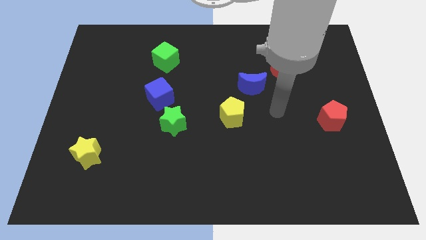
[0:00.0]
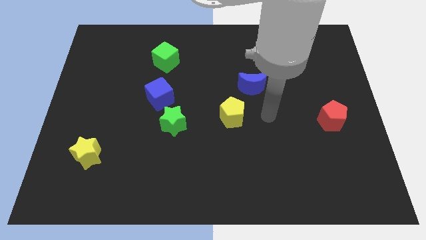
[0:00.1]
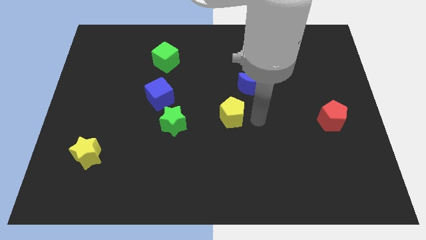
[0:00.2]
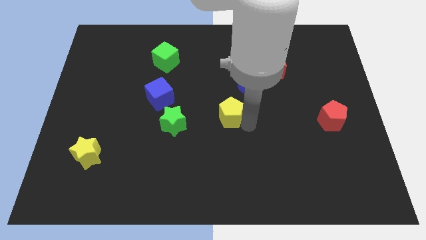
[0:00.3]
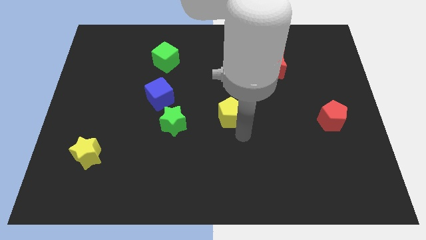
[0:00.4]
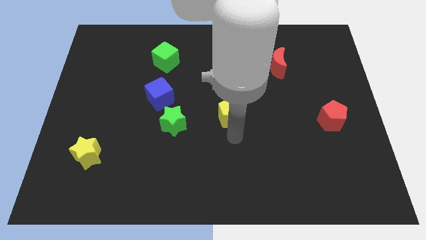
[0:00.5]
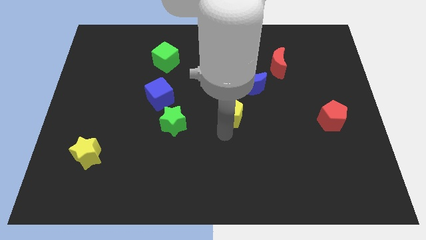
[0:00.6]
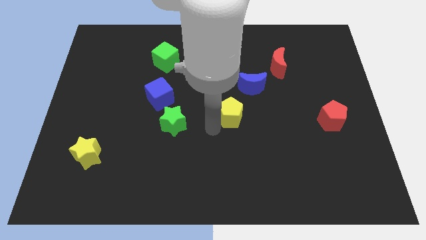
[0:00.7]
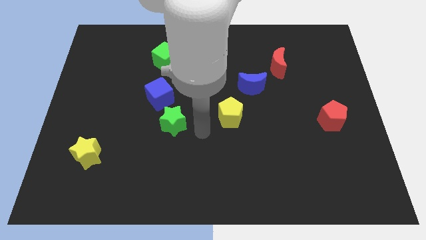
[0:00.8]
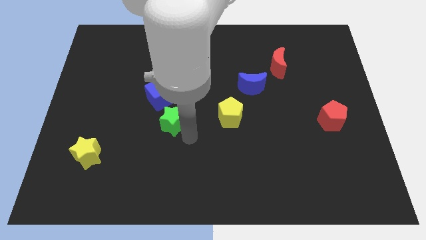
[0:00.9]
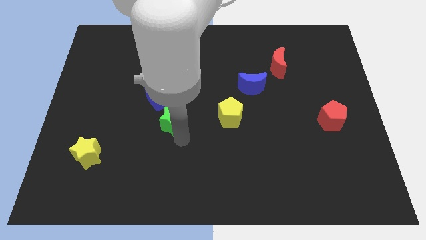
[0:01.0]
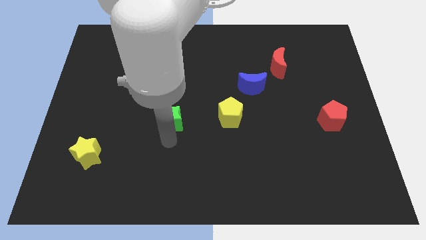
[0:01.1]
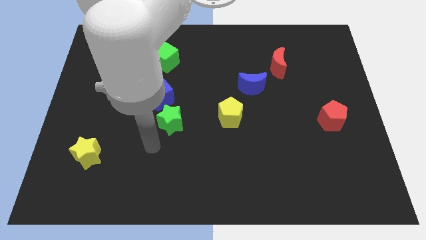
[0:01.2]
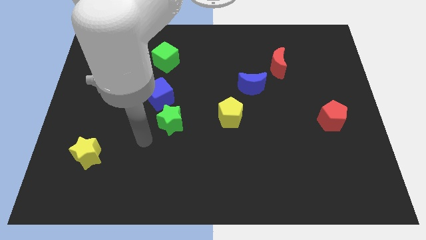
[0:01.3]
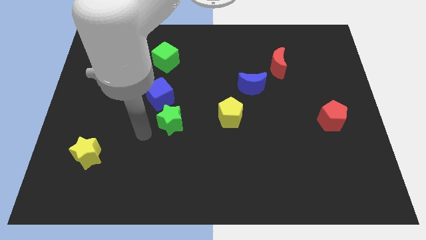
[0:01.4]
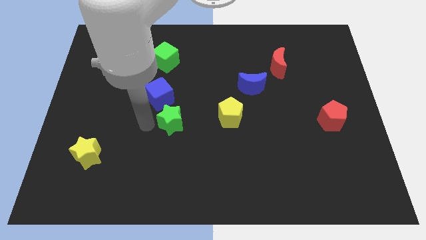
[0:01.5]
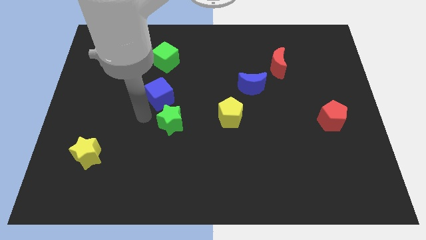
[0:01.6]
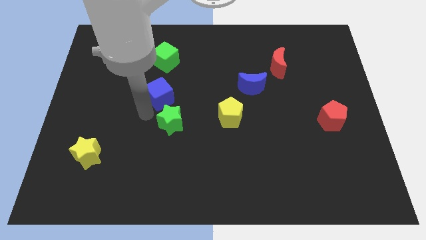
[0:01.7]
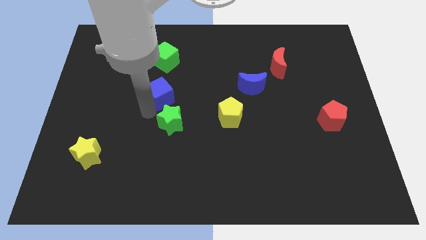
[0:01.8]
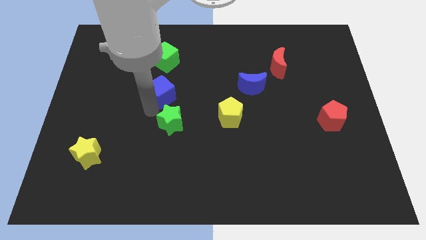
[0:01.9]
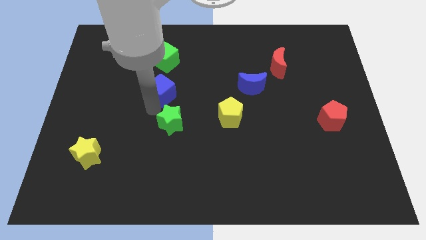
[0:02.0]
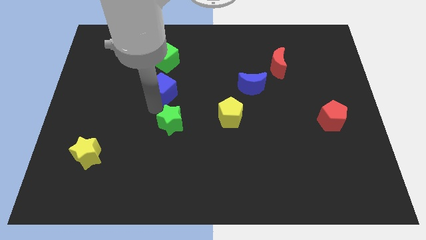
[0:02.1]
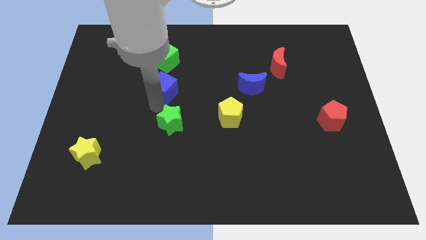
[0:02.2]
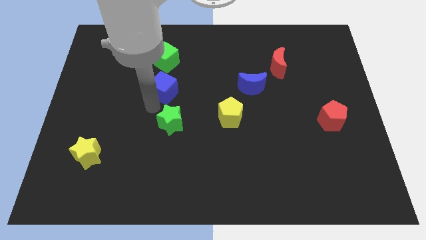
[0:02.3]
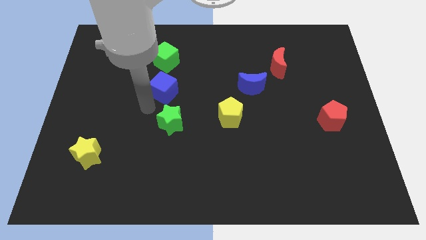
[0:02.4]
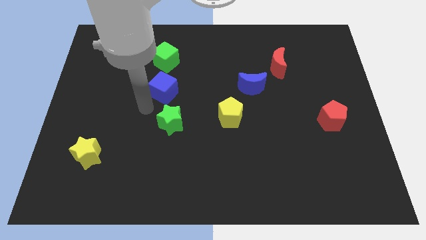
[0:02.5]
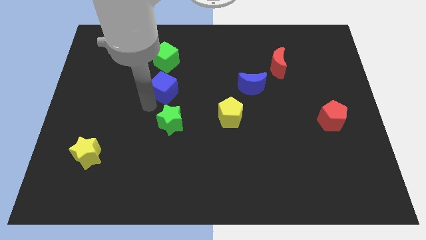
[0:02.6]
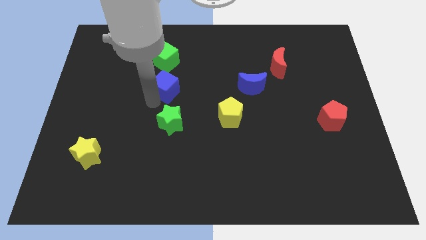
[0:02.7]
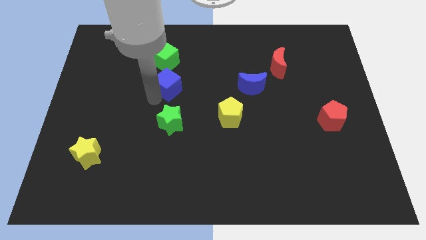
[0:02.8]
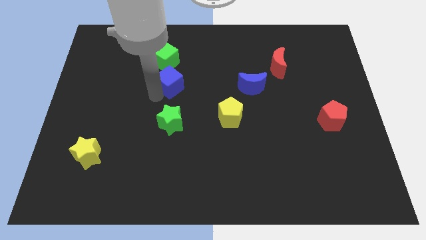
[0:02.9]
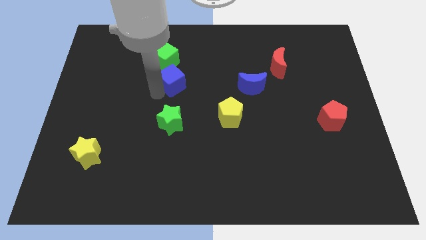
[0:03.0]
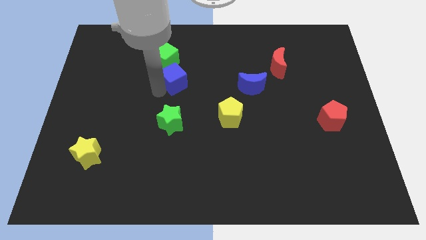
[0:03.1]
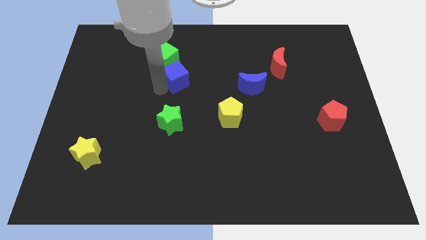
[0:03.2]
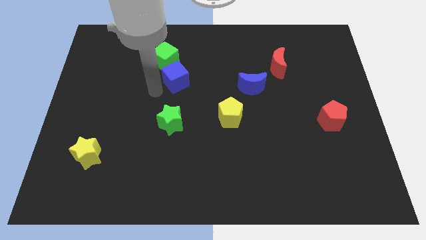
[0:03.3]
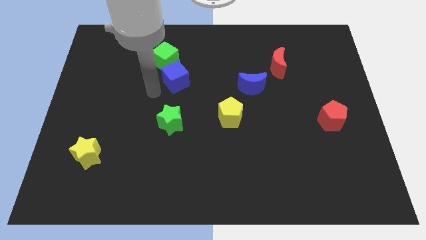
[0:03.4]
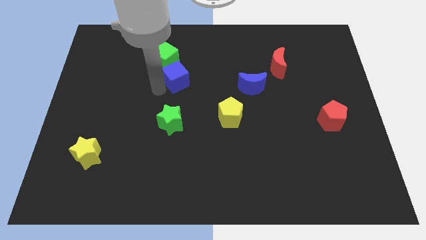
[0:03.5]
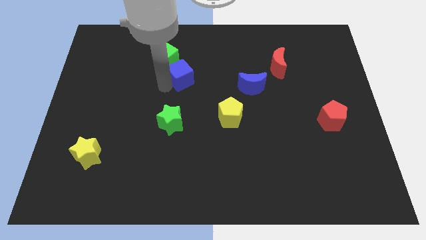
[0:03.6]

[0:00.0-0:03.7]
slightly push the blue cube up and right diagonally

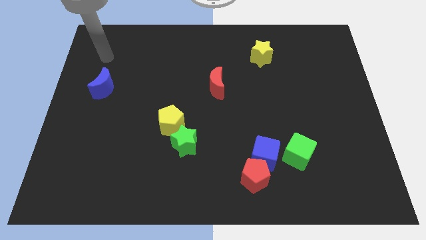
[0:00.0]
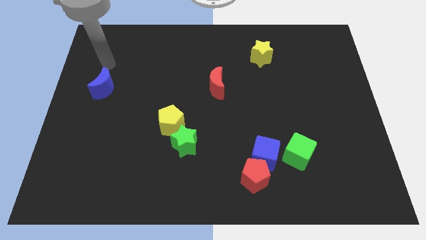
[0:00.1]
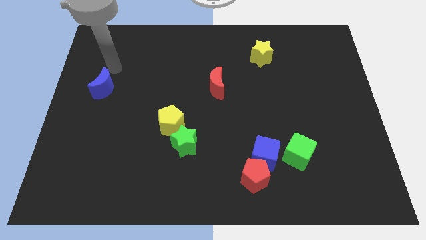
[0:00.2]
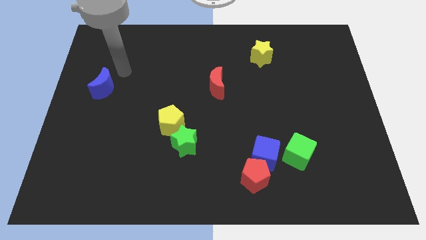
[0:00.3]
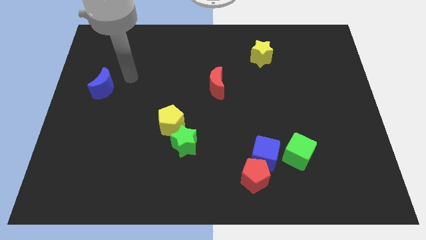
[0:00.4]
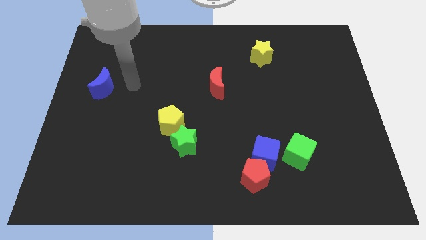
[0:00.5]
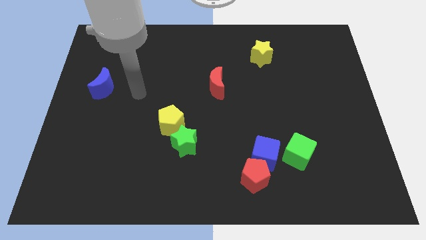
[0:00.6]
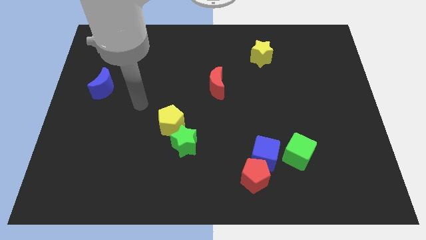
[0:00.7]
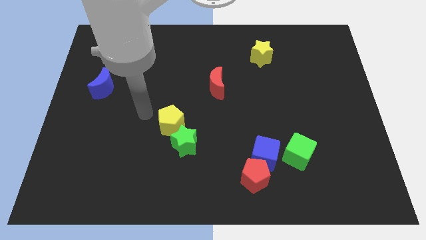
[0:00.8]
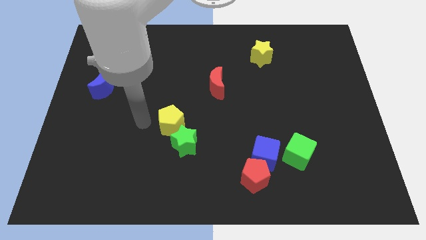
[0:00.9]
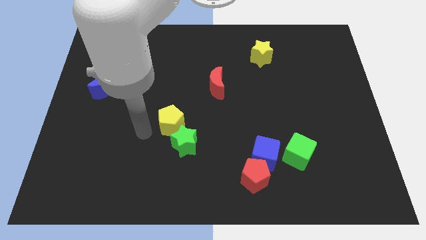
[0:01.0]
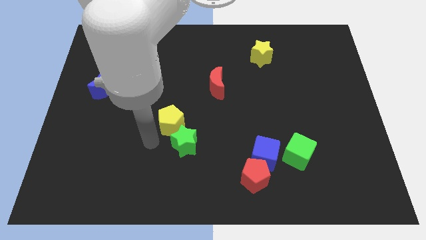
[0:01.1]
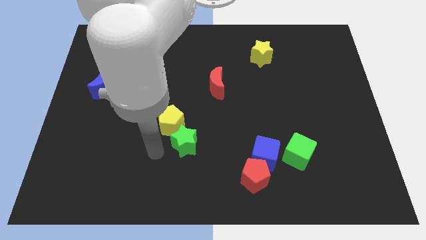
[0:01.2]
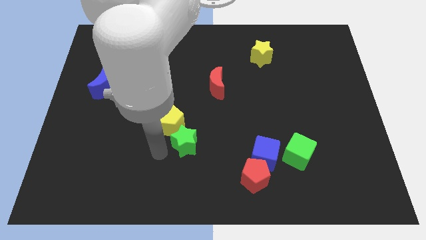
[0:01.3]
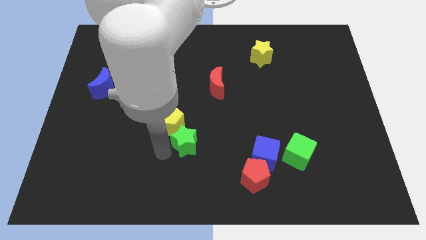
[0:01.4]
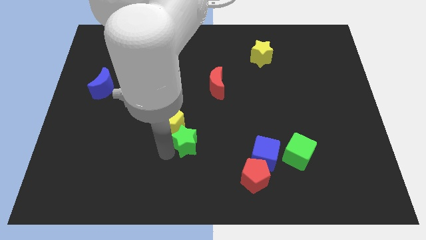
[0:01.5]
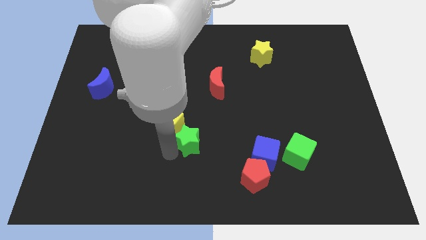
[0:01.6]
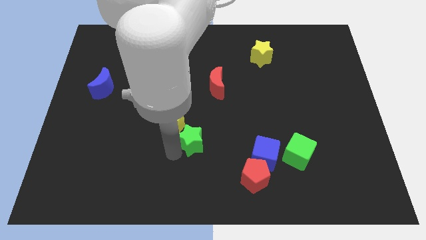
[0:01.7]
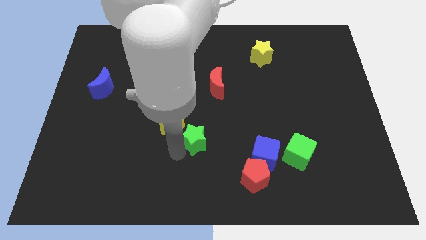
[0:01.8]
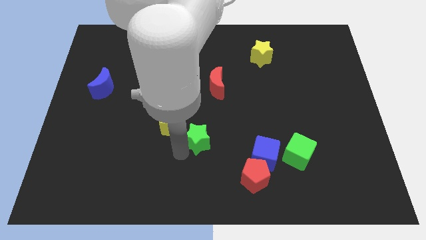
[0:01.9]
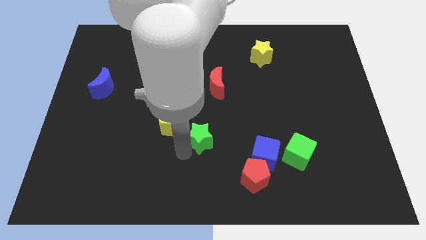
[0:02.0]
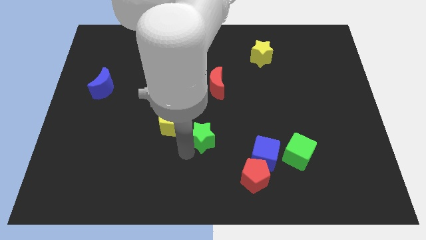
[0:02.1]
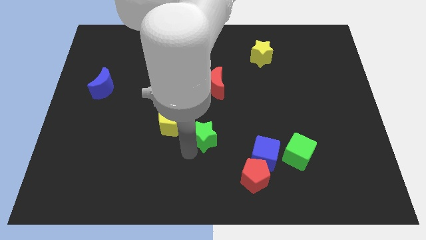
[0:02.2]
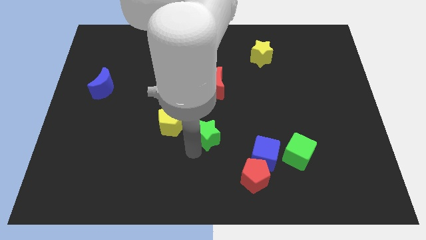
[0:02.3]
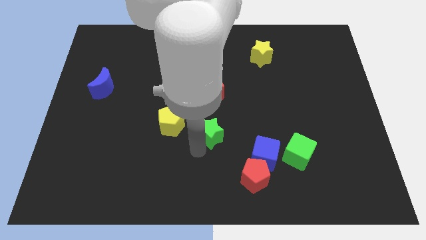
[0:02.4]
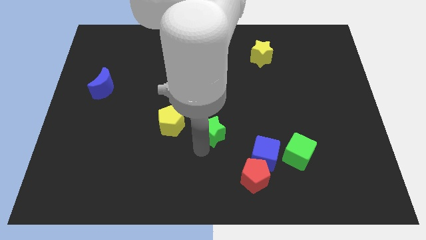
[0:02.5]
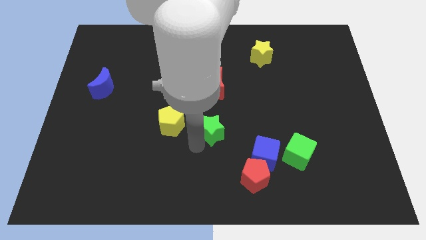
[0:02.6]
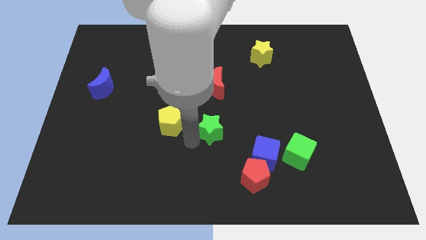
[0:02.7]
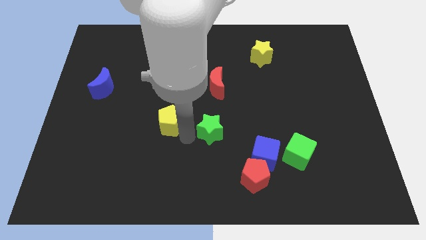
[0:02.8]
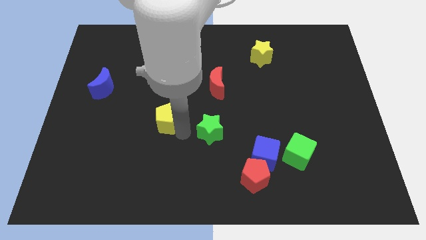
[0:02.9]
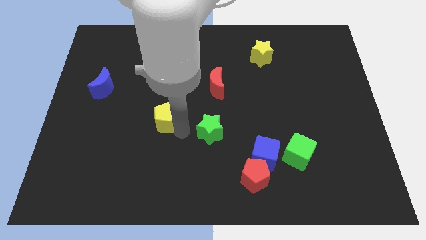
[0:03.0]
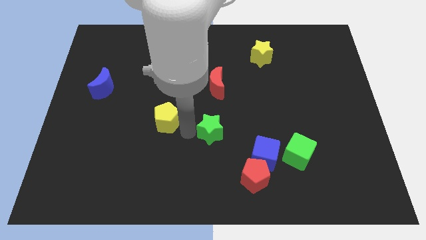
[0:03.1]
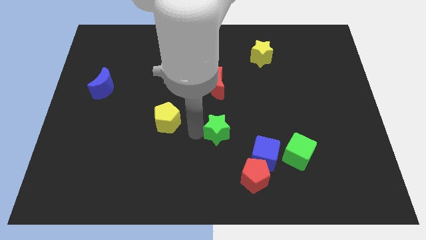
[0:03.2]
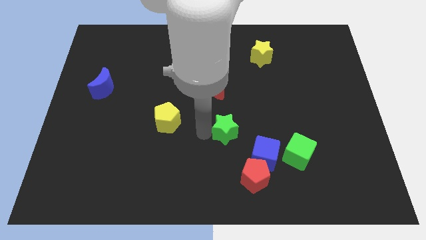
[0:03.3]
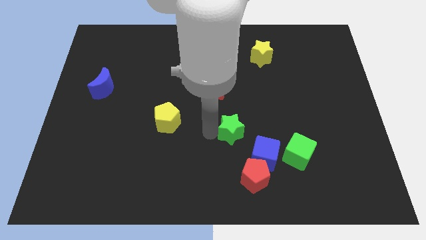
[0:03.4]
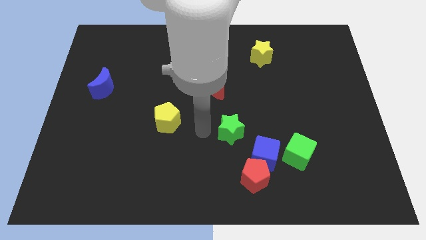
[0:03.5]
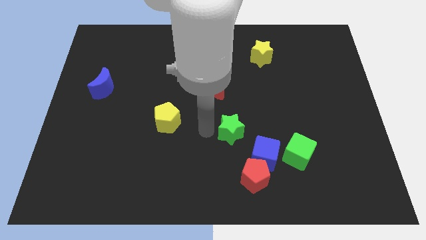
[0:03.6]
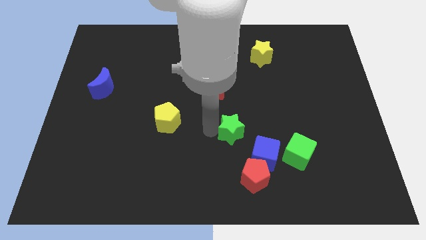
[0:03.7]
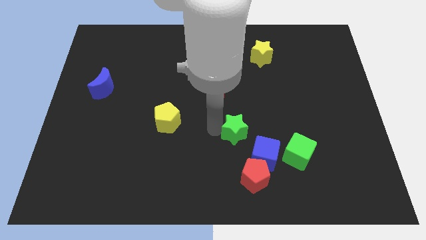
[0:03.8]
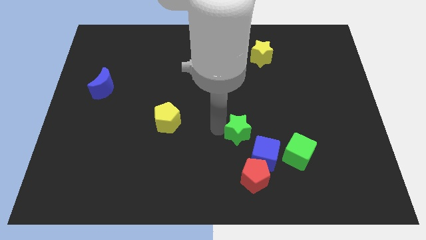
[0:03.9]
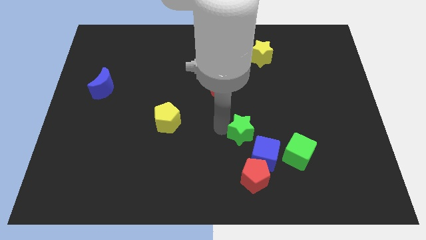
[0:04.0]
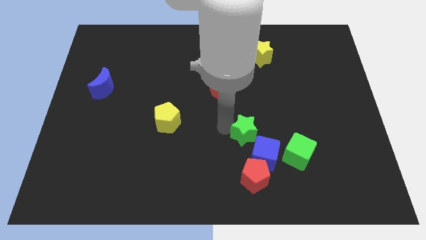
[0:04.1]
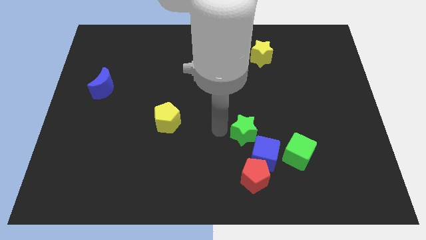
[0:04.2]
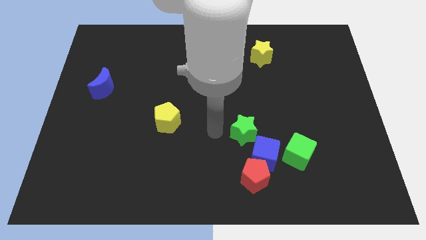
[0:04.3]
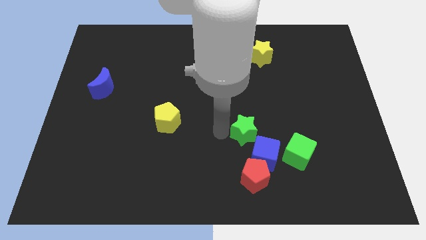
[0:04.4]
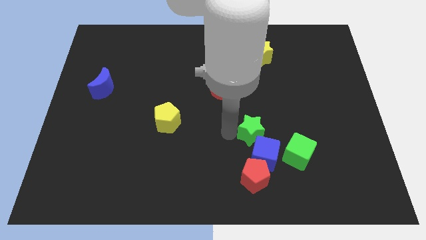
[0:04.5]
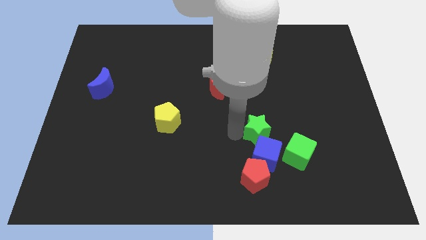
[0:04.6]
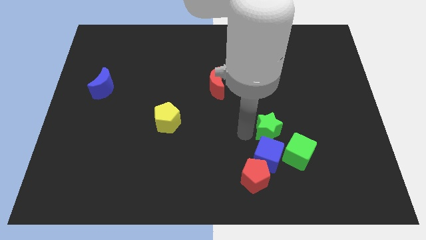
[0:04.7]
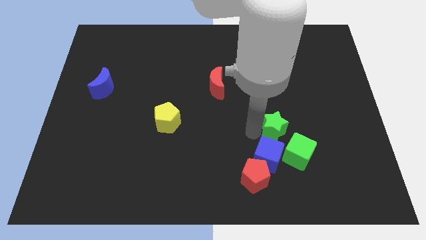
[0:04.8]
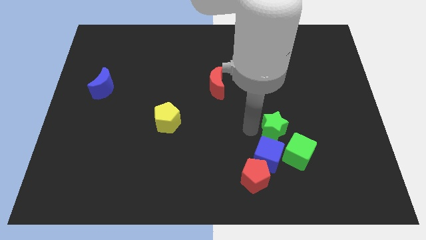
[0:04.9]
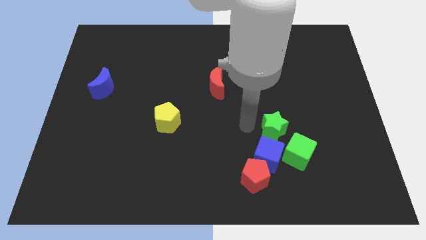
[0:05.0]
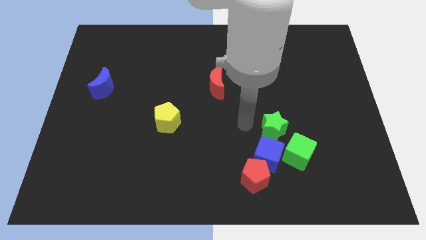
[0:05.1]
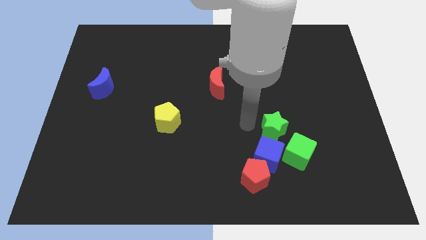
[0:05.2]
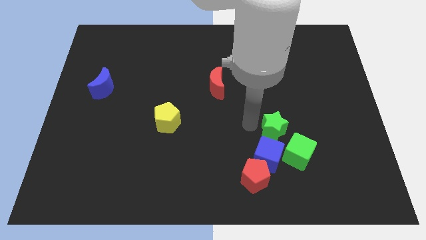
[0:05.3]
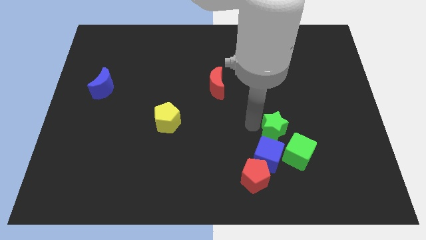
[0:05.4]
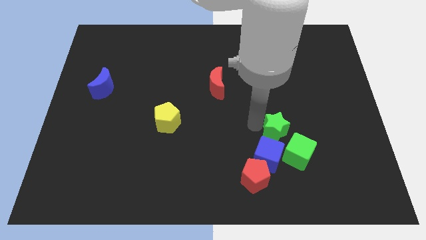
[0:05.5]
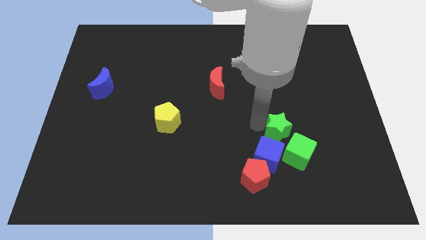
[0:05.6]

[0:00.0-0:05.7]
push the green star to the right
